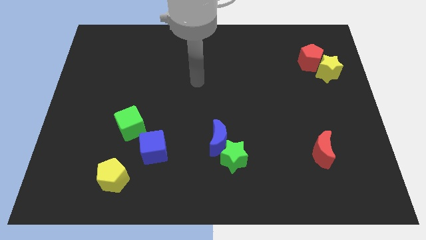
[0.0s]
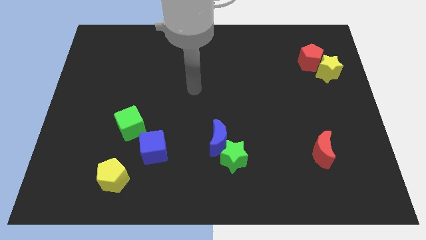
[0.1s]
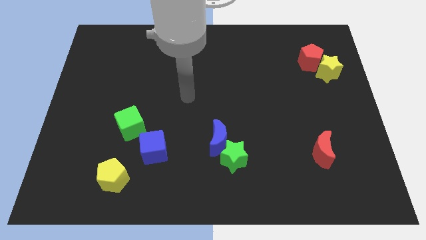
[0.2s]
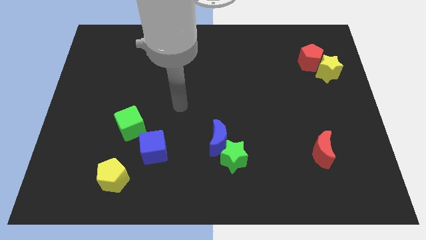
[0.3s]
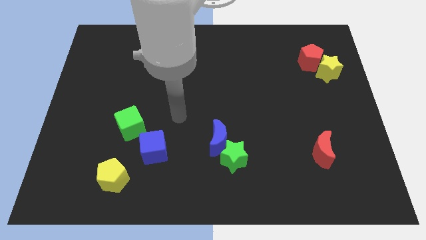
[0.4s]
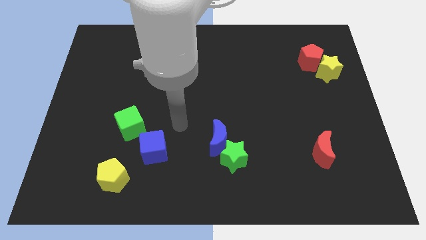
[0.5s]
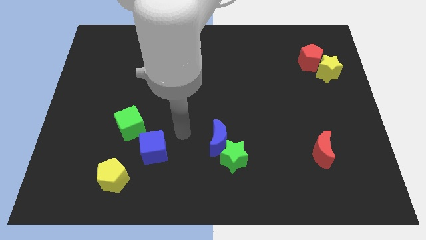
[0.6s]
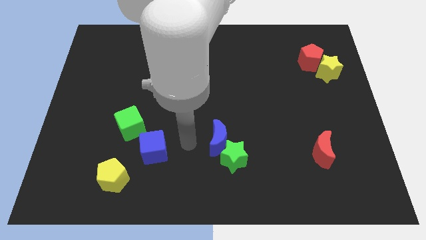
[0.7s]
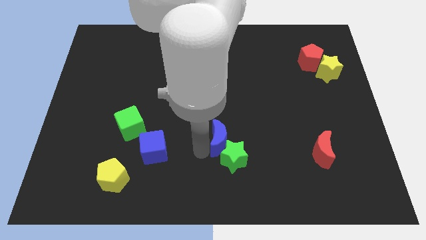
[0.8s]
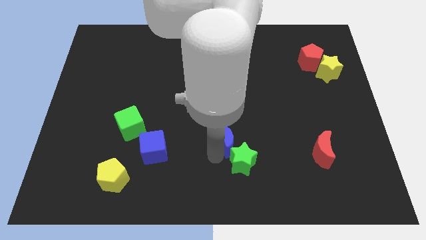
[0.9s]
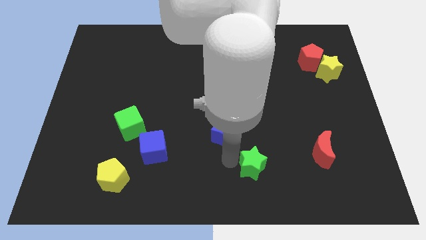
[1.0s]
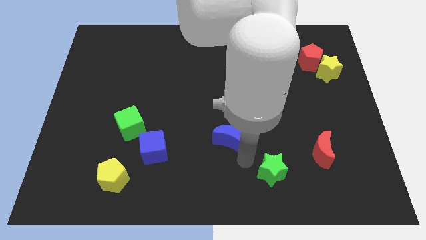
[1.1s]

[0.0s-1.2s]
pull the blue moon apart from the green star

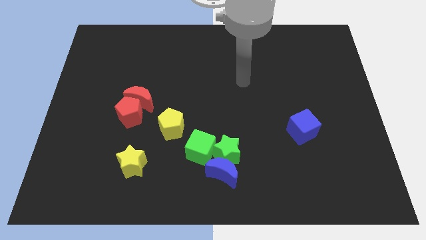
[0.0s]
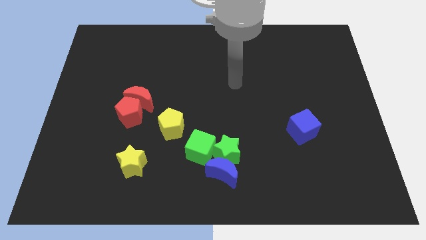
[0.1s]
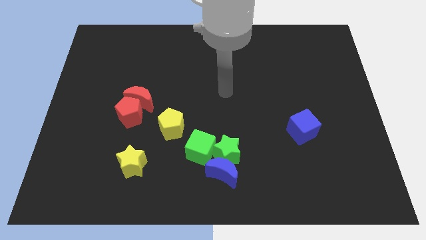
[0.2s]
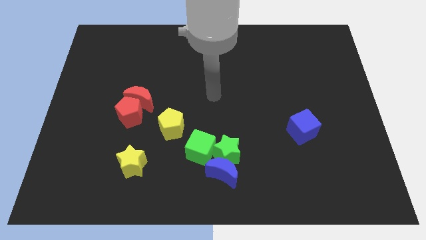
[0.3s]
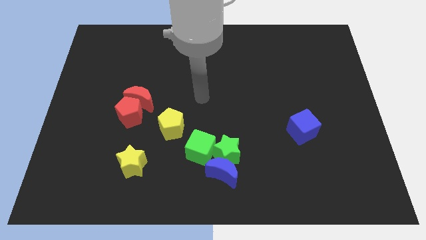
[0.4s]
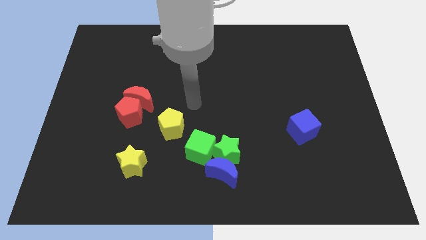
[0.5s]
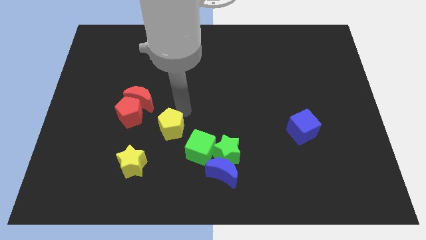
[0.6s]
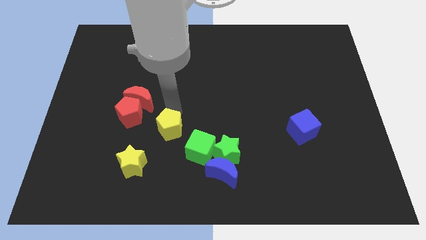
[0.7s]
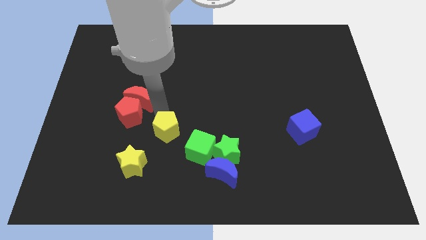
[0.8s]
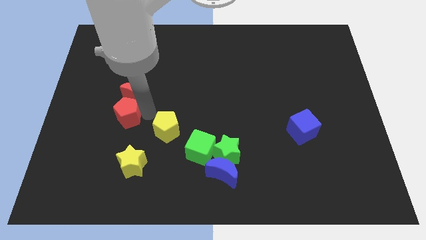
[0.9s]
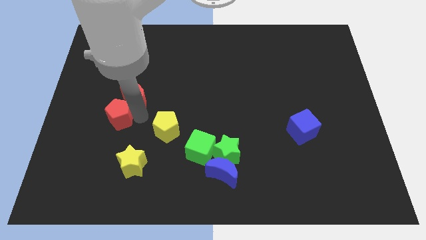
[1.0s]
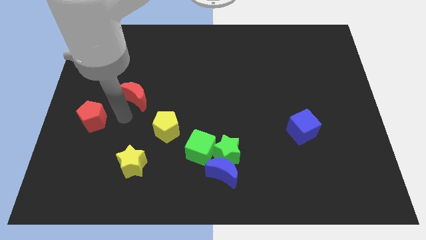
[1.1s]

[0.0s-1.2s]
separate the red moon from the red pentagon

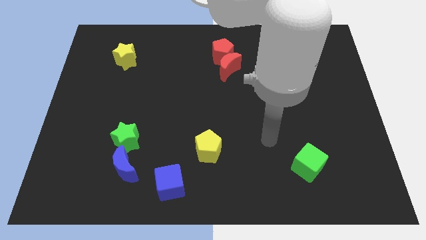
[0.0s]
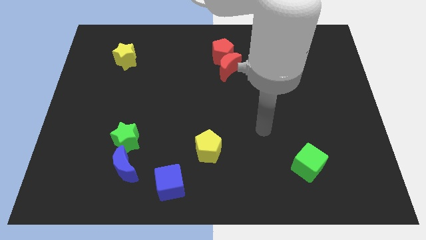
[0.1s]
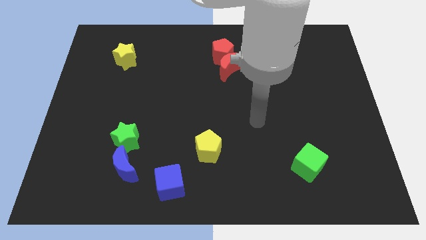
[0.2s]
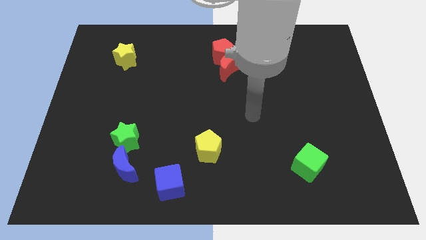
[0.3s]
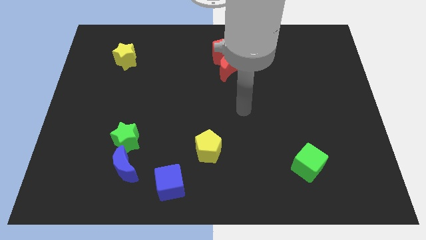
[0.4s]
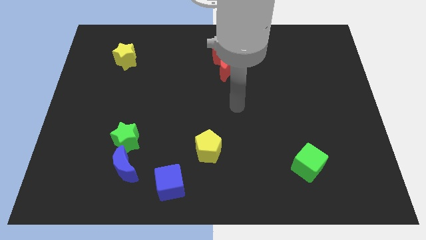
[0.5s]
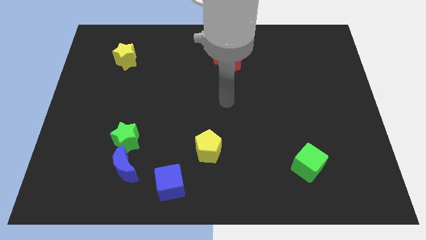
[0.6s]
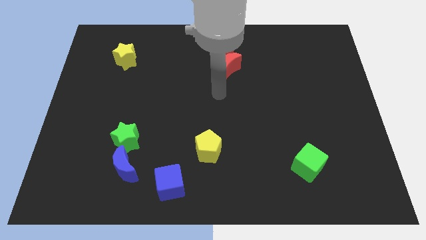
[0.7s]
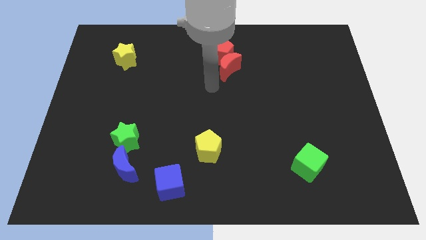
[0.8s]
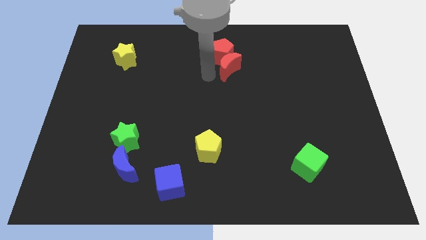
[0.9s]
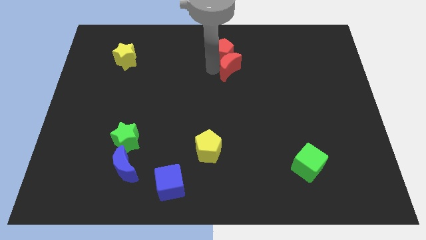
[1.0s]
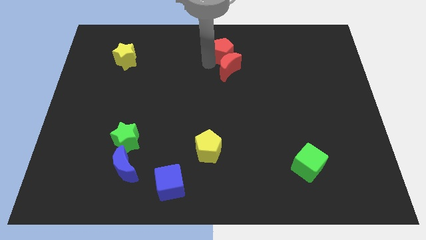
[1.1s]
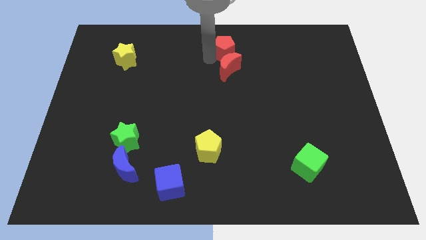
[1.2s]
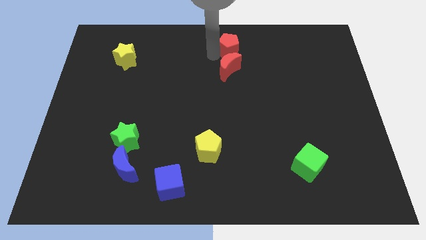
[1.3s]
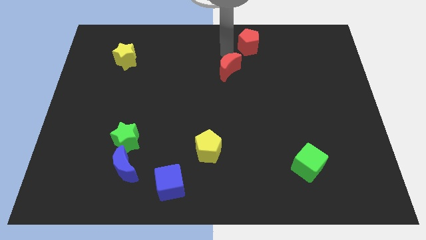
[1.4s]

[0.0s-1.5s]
move the red moon away from the red pentagon

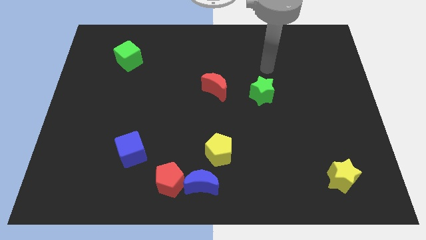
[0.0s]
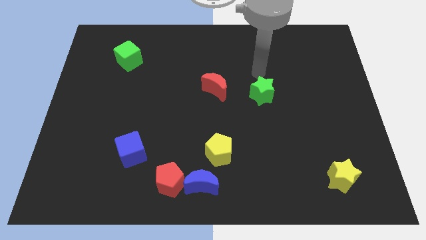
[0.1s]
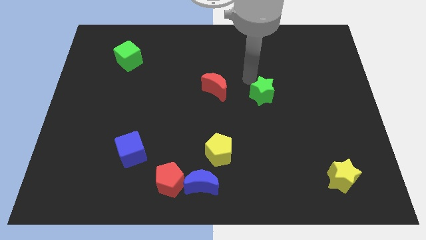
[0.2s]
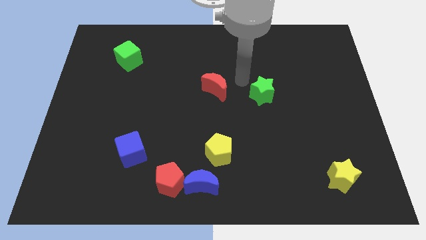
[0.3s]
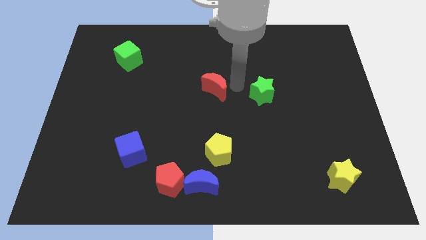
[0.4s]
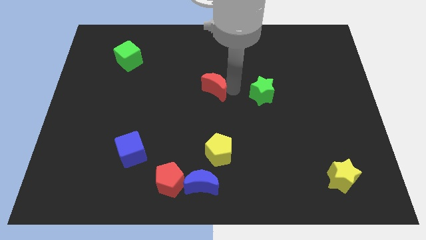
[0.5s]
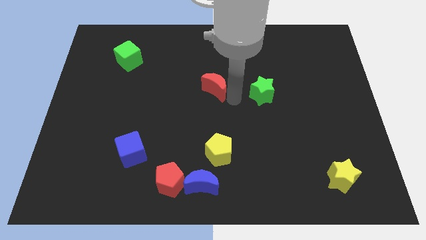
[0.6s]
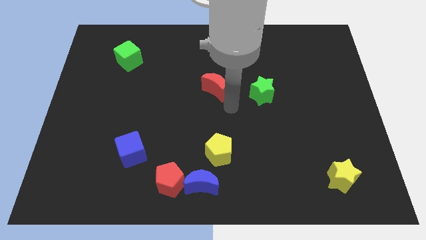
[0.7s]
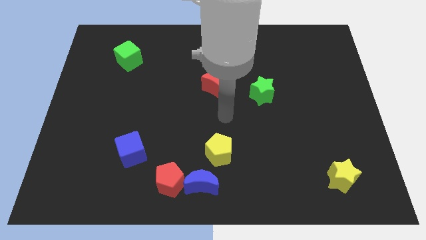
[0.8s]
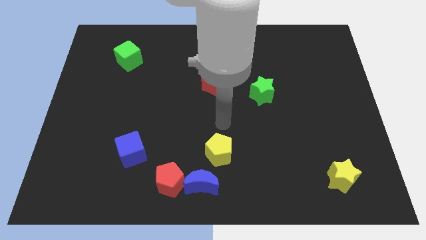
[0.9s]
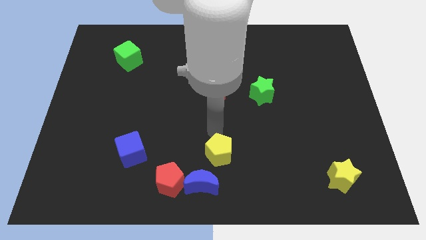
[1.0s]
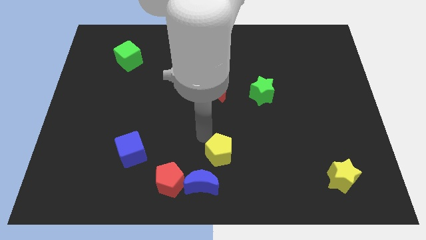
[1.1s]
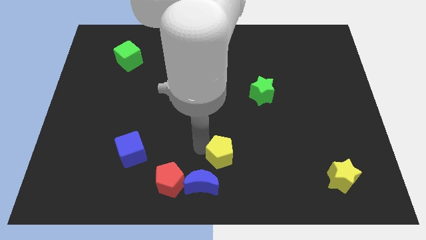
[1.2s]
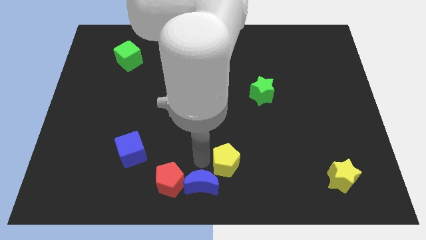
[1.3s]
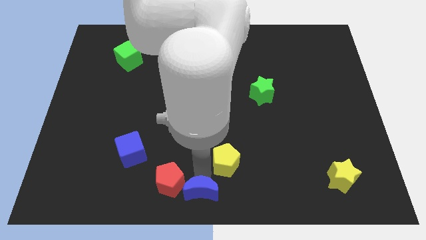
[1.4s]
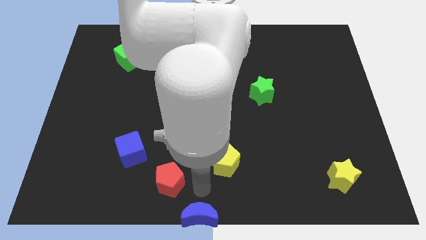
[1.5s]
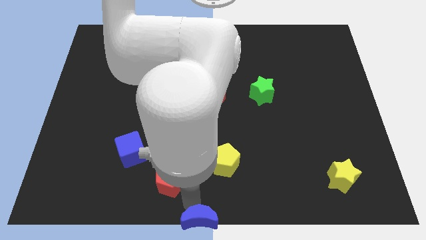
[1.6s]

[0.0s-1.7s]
pull the red pentagon apart from the blue moon

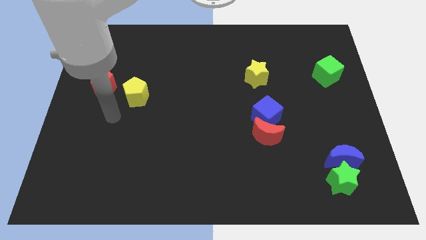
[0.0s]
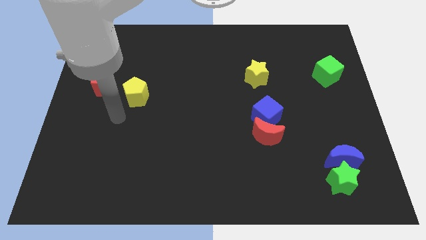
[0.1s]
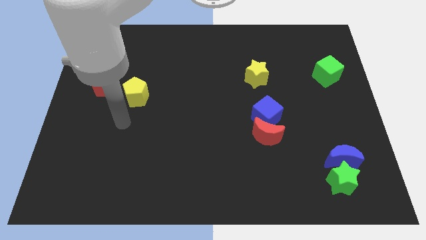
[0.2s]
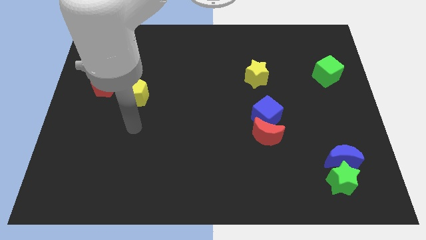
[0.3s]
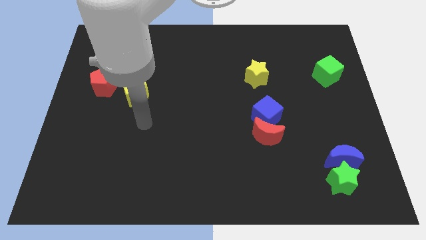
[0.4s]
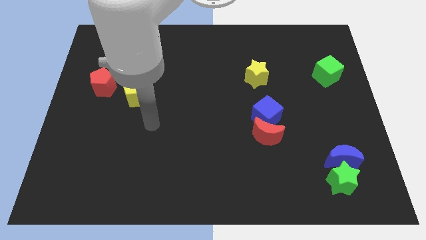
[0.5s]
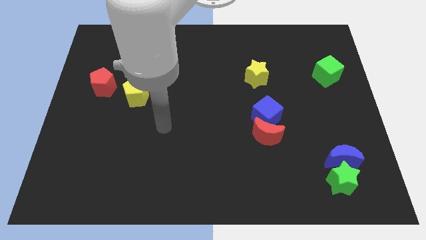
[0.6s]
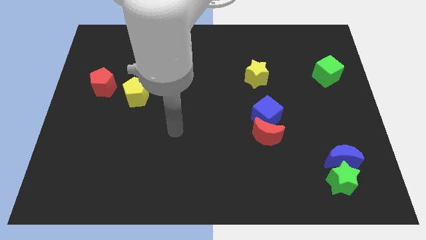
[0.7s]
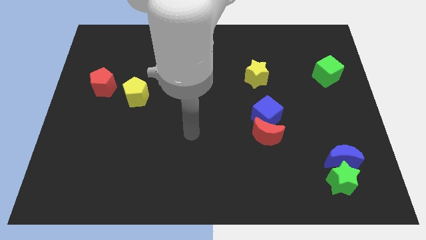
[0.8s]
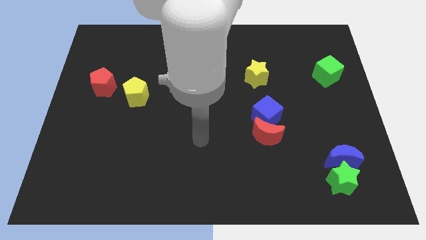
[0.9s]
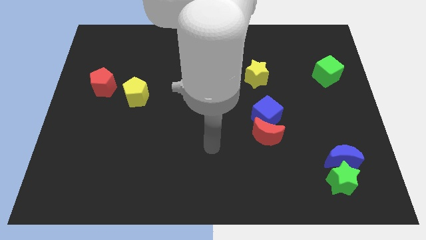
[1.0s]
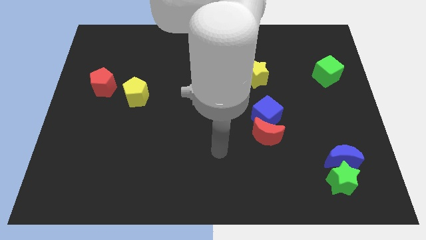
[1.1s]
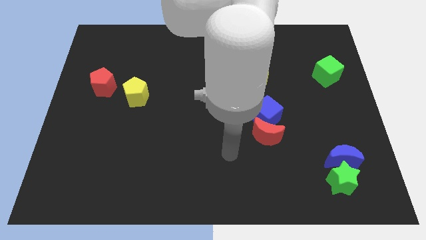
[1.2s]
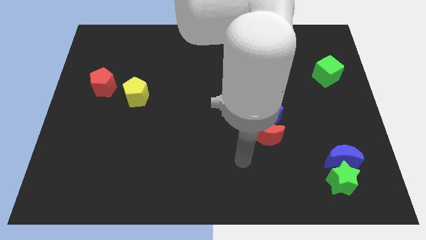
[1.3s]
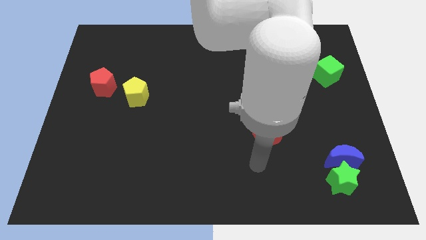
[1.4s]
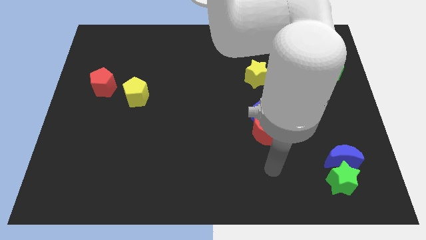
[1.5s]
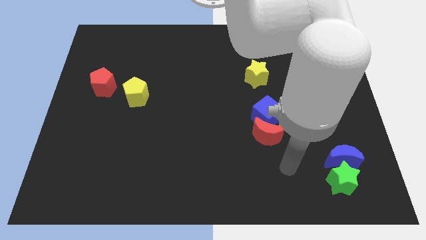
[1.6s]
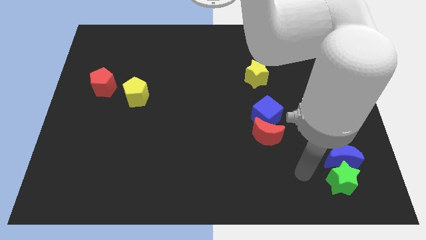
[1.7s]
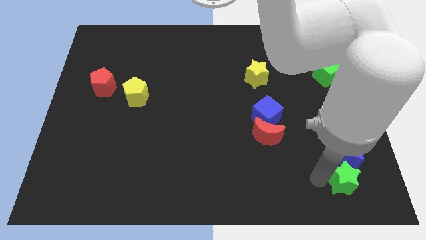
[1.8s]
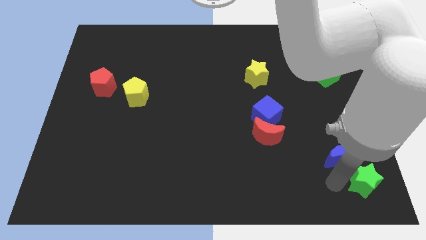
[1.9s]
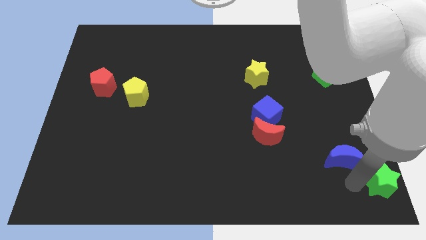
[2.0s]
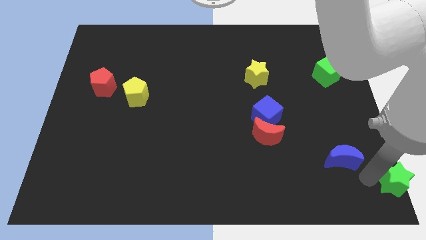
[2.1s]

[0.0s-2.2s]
move the blue moon away from the green star

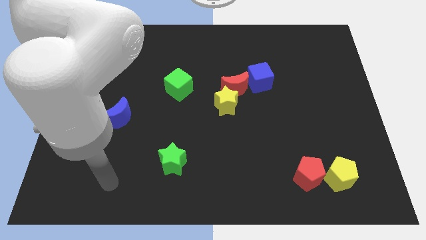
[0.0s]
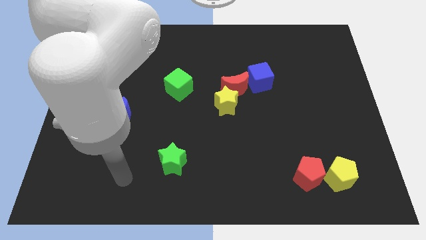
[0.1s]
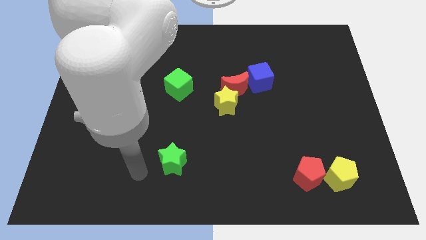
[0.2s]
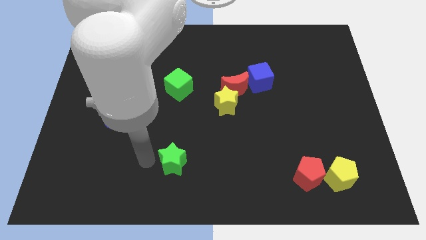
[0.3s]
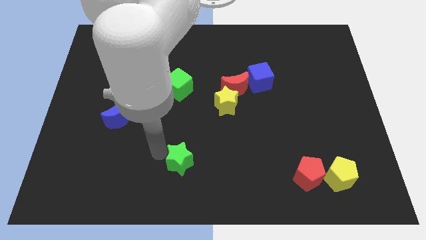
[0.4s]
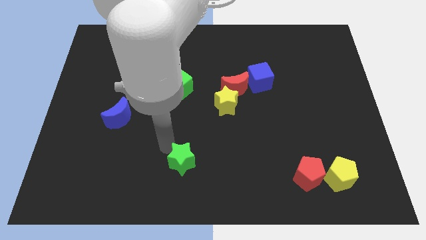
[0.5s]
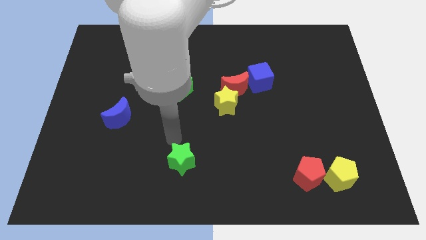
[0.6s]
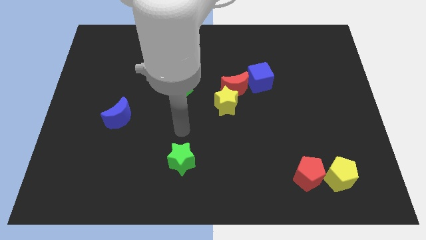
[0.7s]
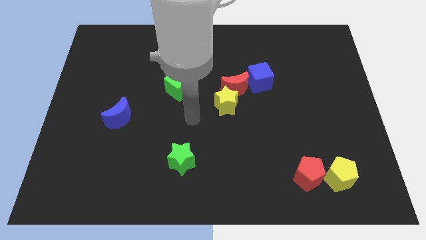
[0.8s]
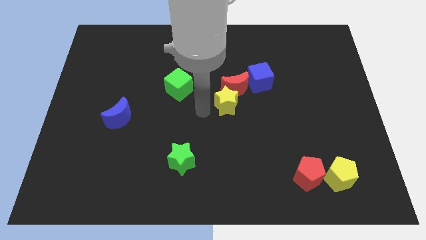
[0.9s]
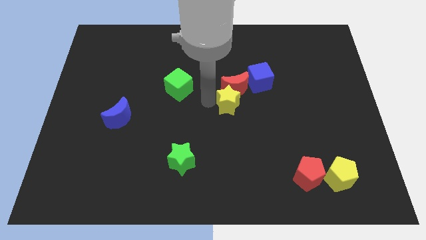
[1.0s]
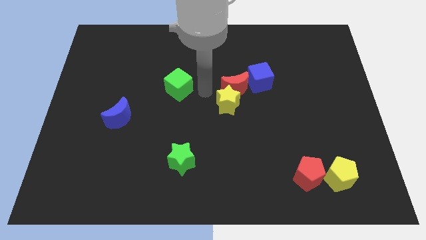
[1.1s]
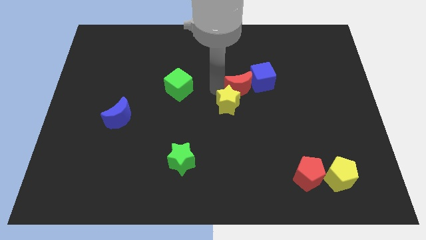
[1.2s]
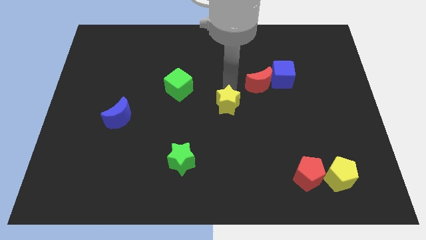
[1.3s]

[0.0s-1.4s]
separate the yellow star from the red moon

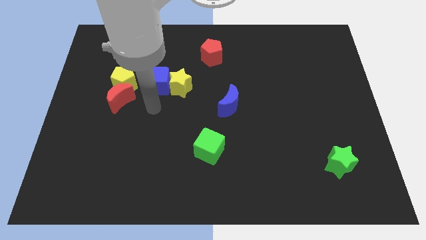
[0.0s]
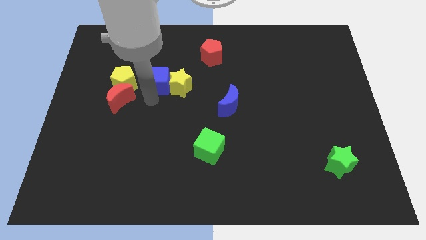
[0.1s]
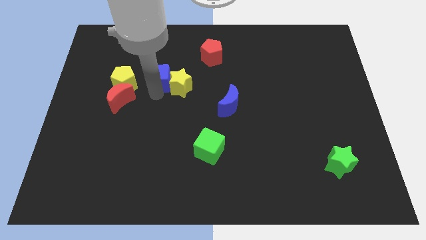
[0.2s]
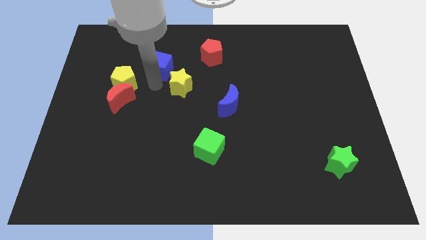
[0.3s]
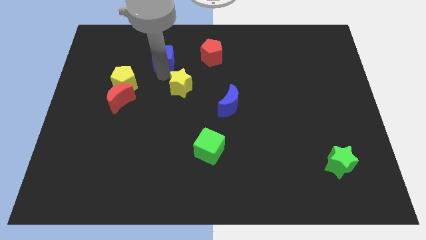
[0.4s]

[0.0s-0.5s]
pull the yellow star apart from the blue cube
